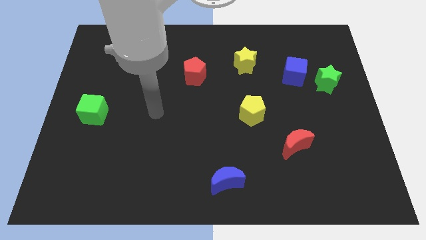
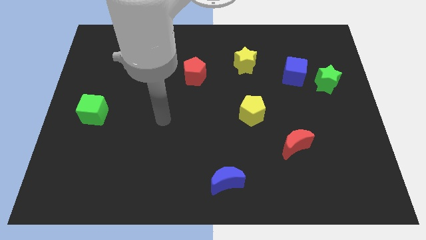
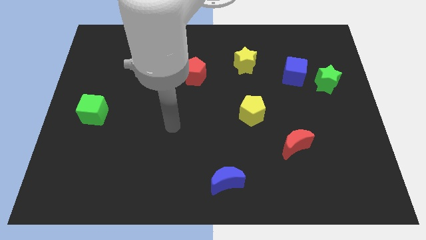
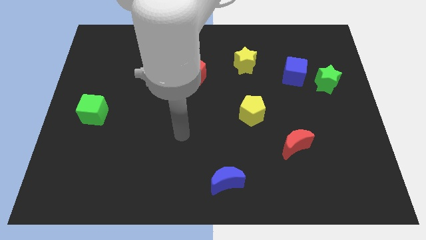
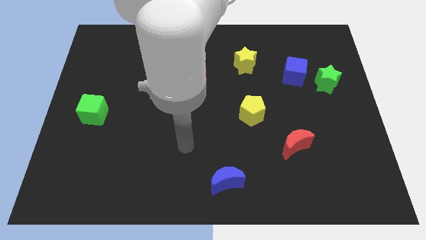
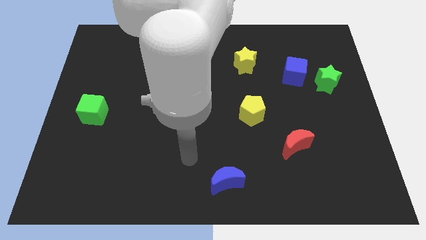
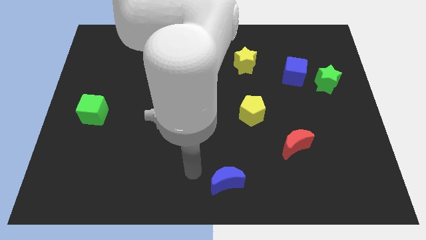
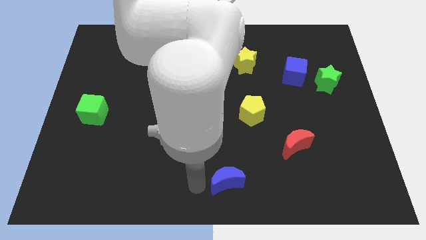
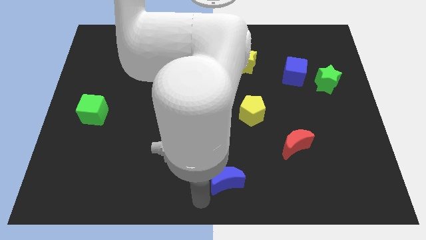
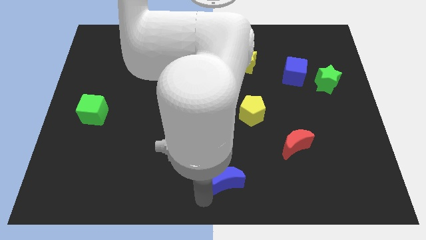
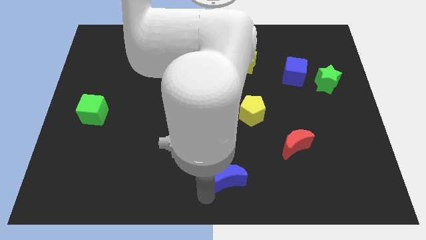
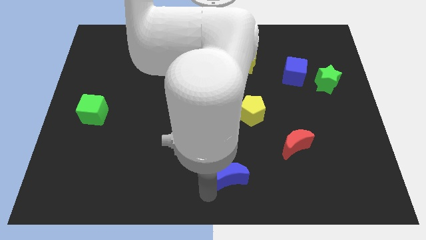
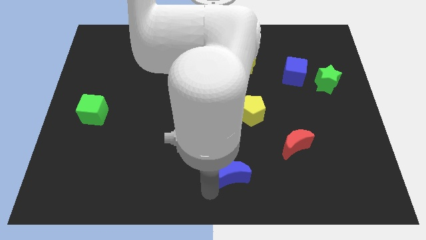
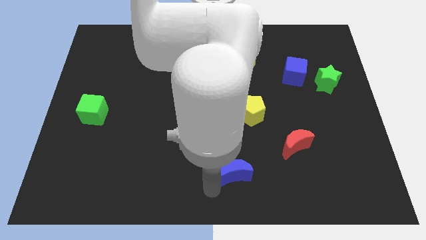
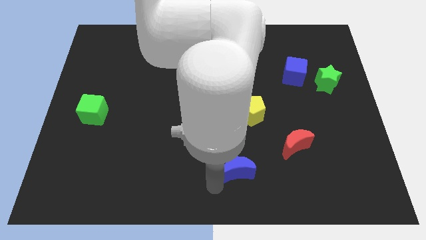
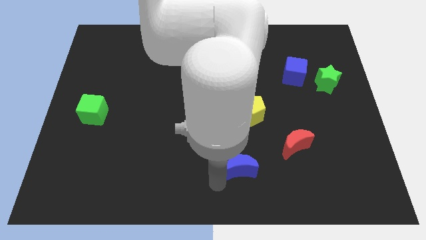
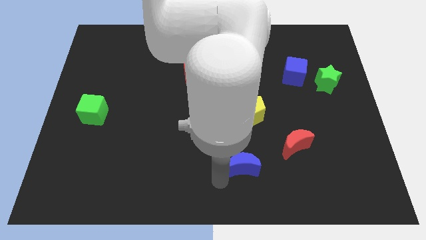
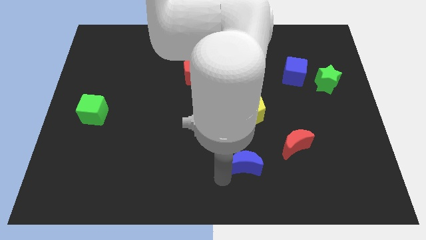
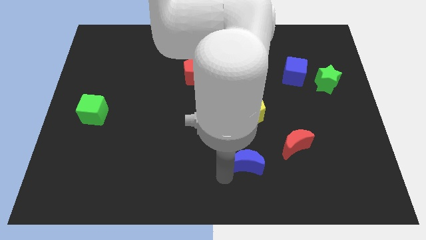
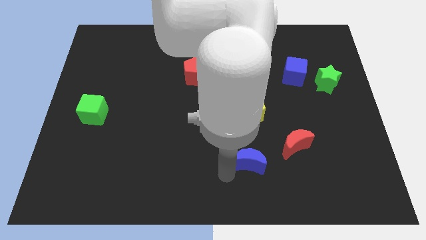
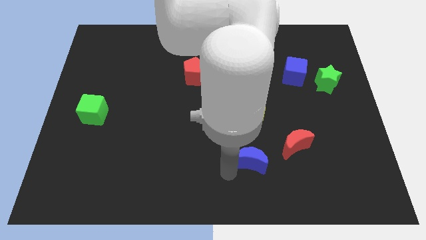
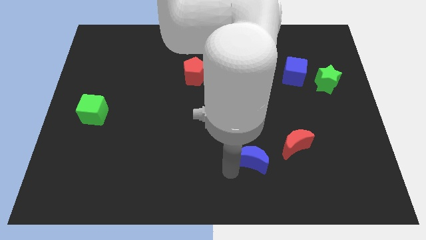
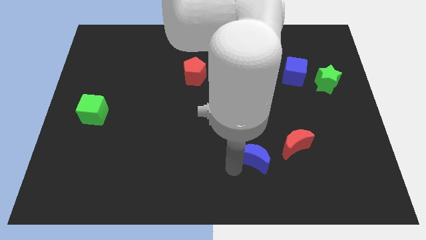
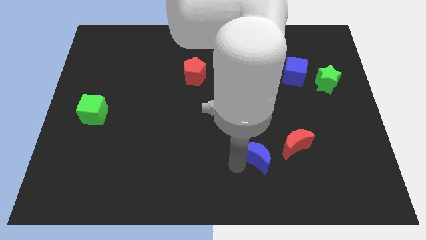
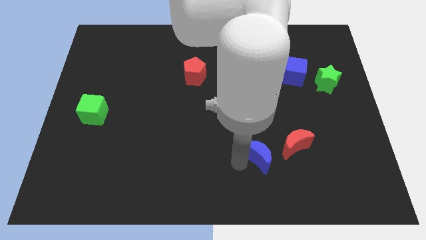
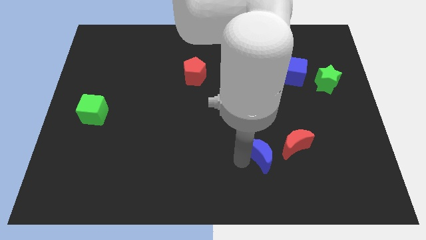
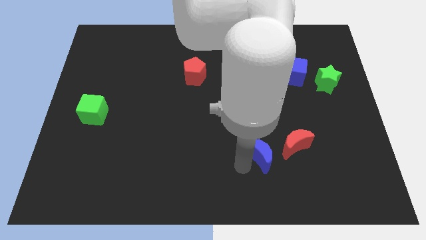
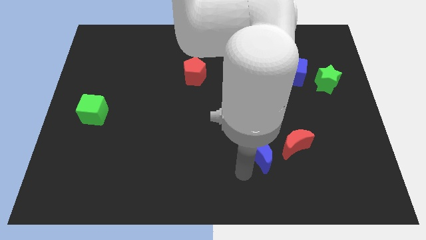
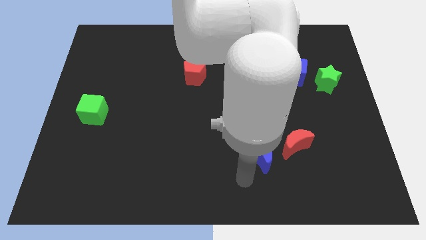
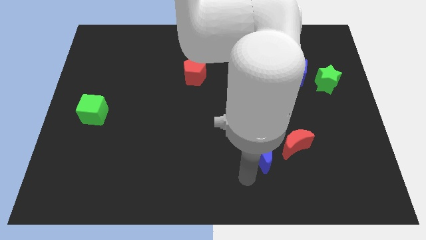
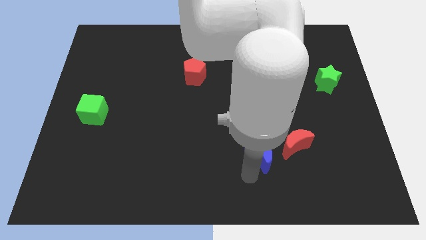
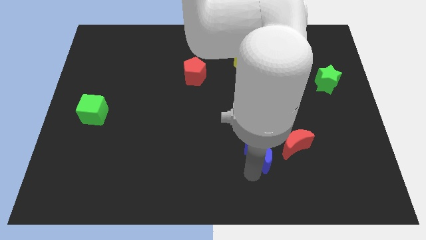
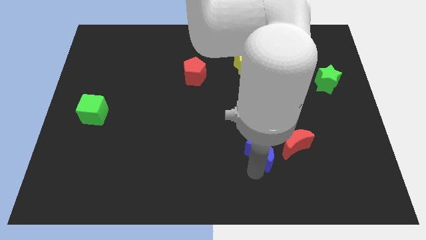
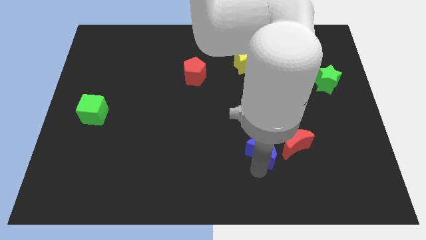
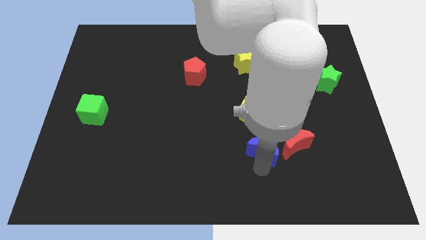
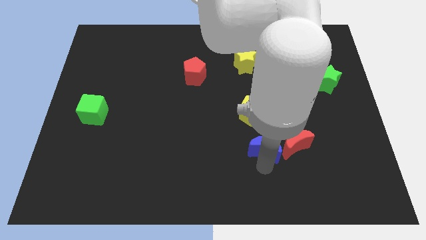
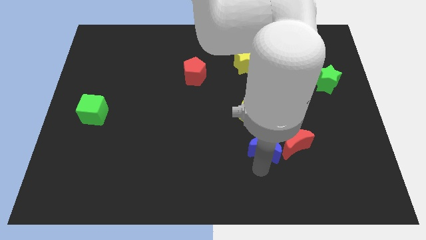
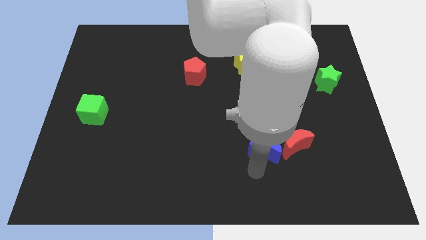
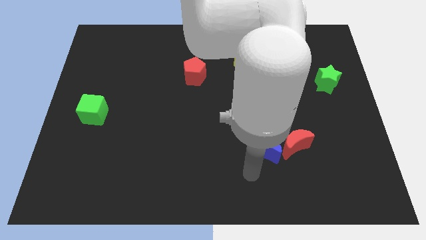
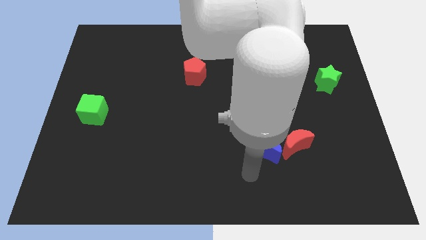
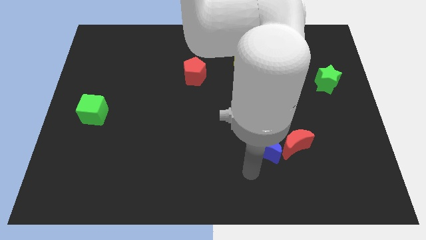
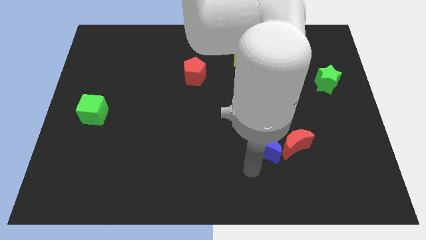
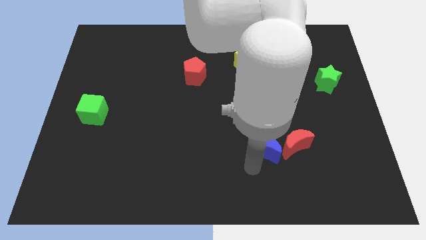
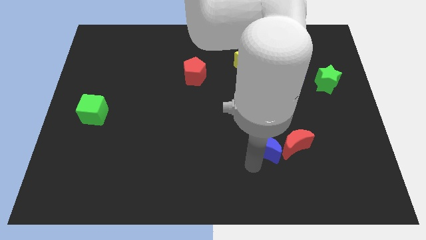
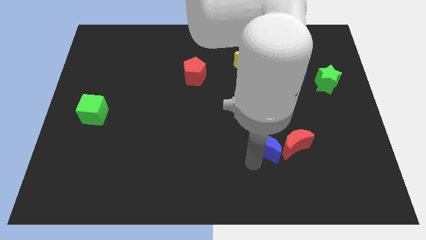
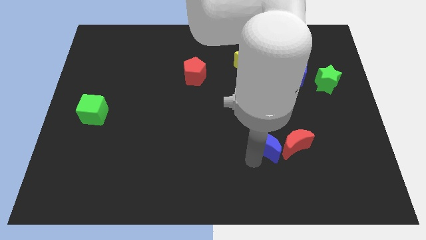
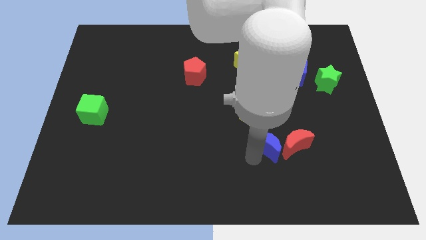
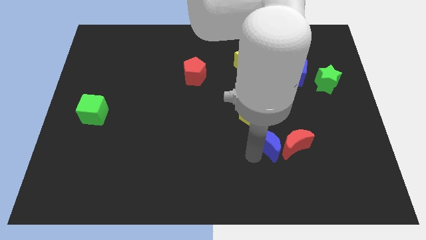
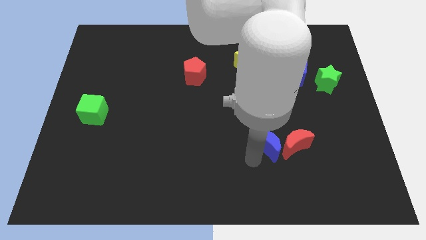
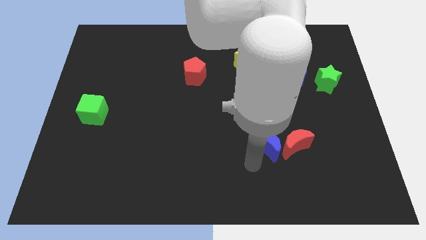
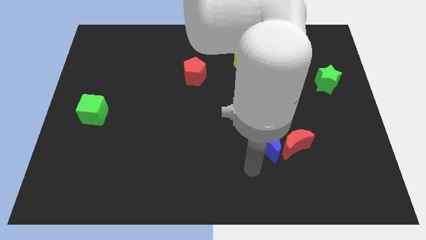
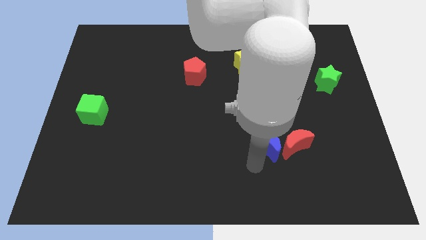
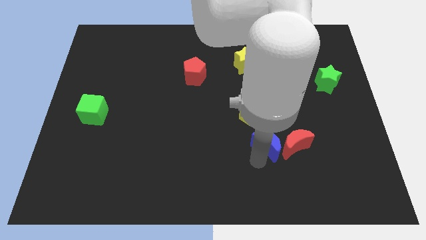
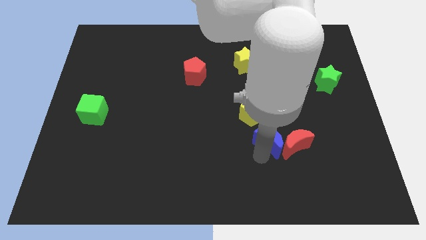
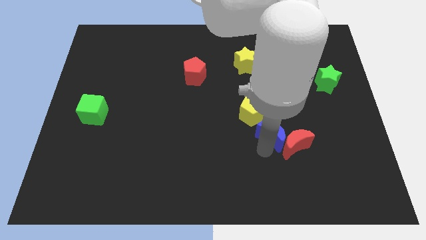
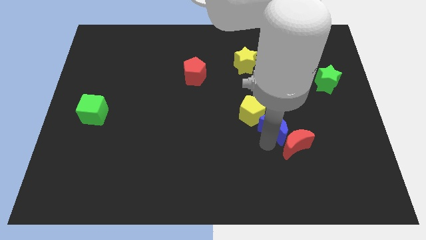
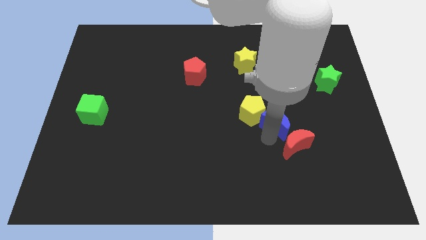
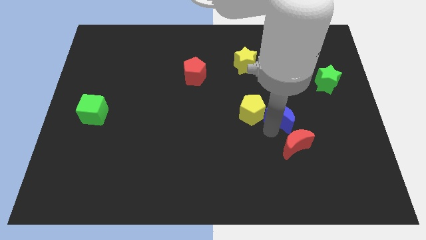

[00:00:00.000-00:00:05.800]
push the blue moon up and to the right

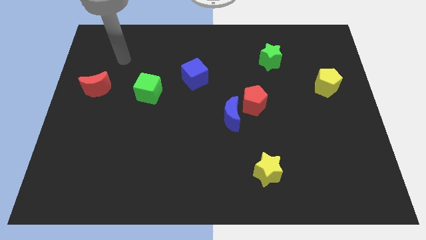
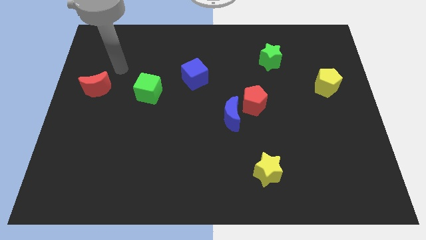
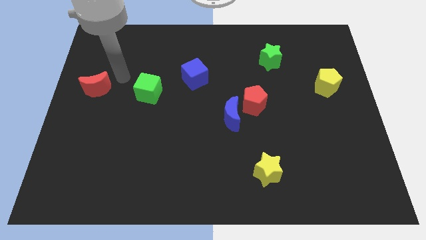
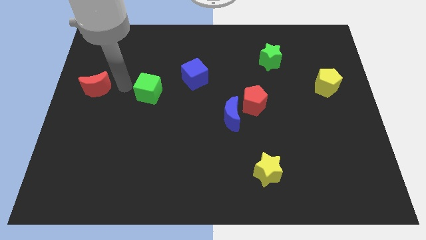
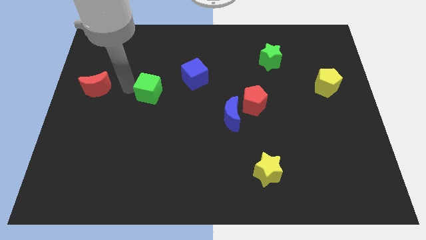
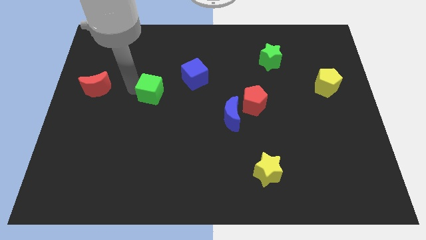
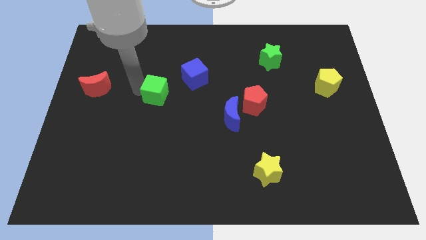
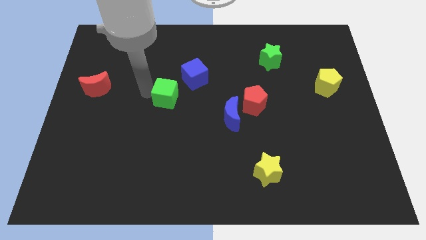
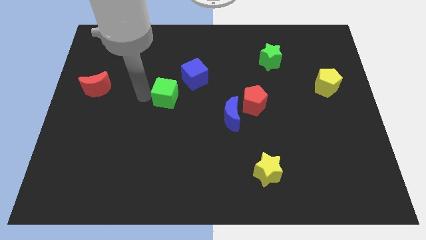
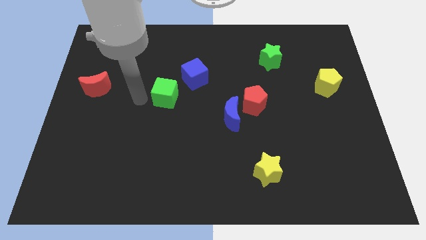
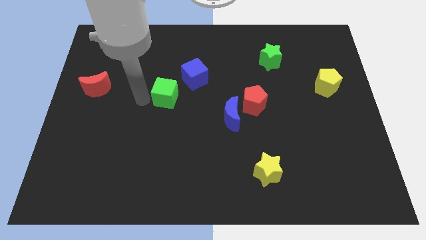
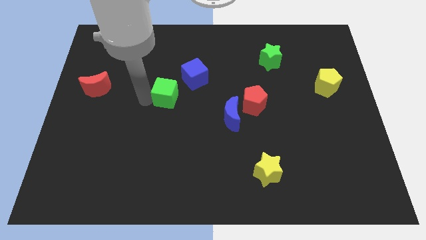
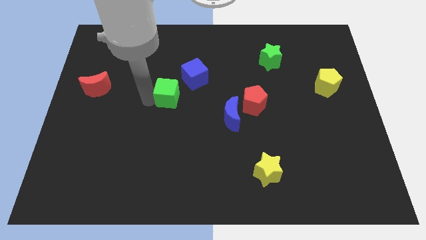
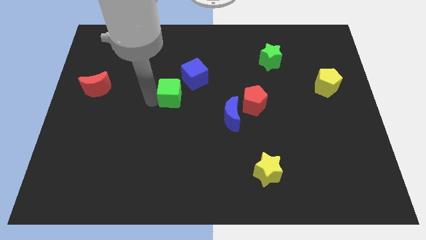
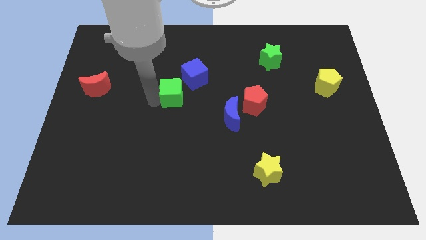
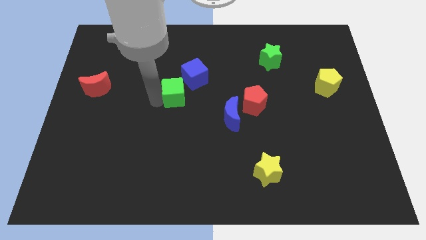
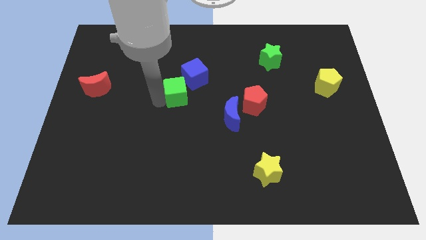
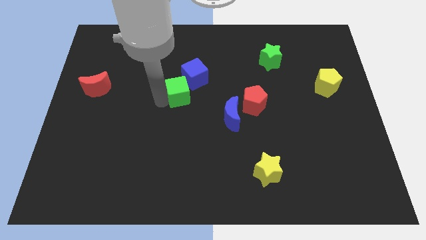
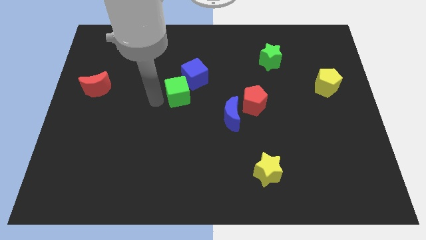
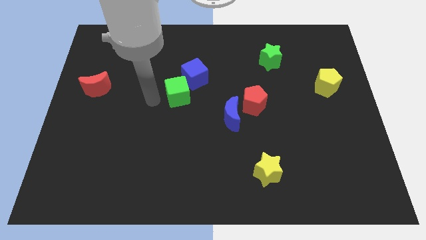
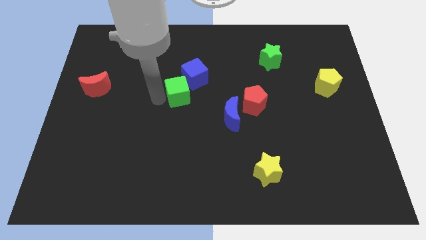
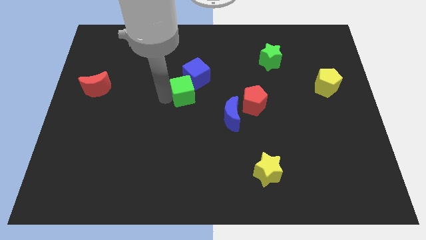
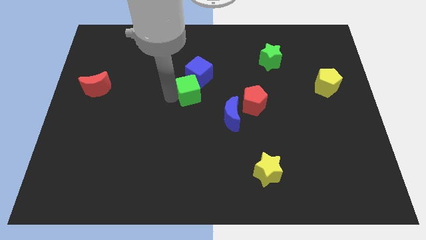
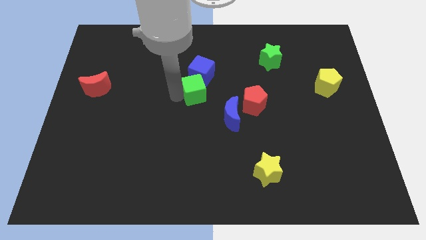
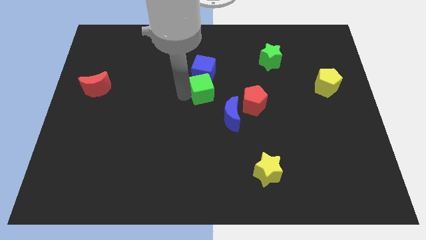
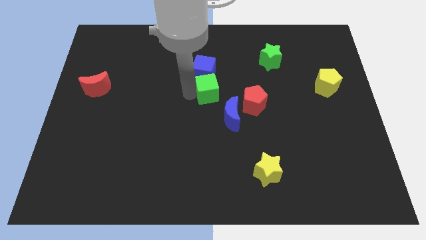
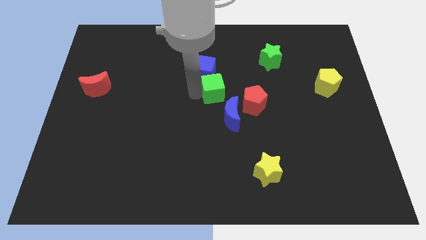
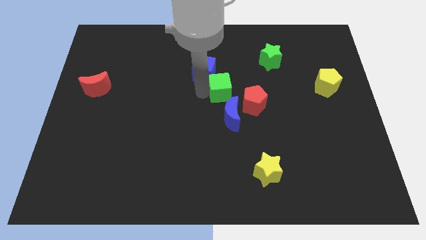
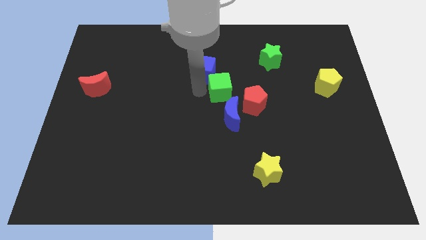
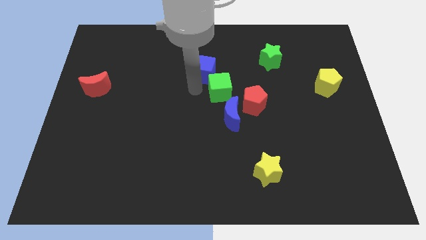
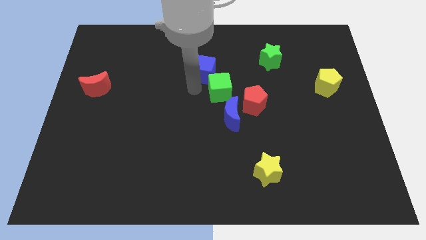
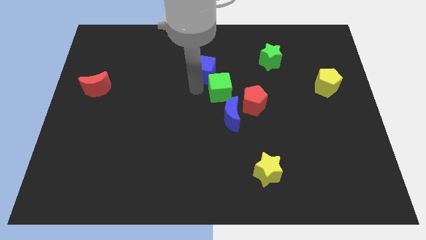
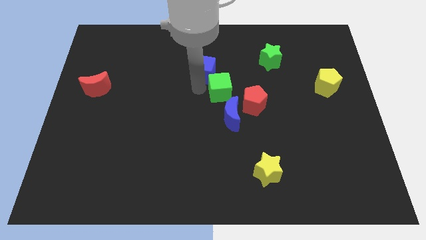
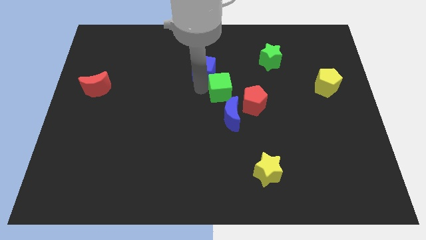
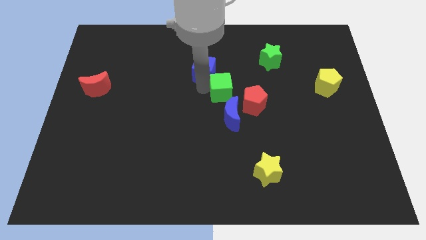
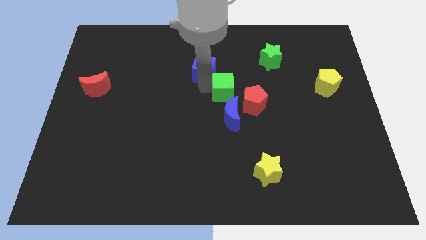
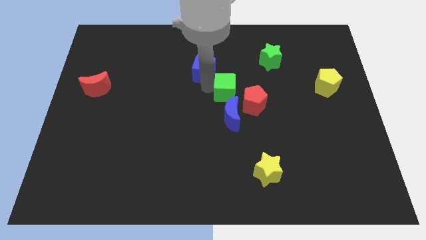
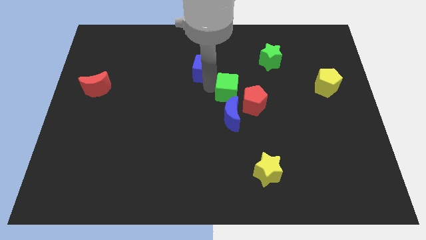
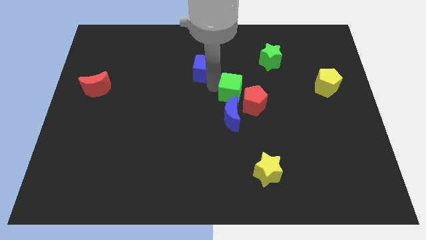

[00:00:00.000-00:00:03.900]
push the green cube to the right
